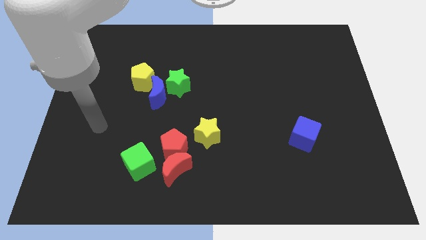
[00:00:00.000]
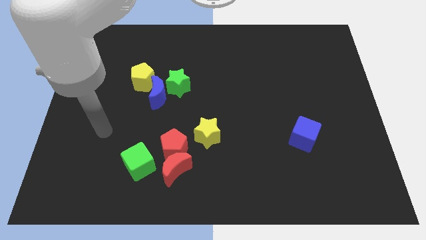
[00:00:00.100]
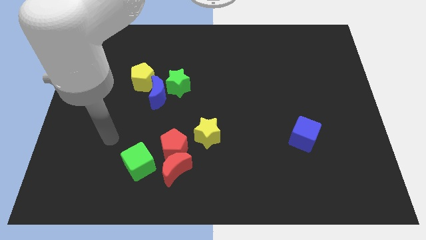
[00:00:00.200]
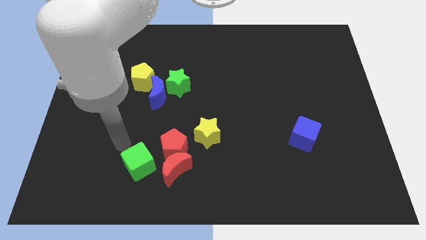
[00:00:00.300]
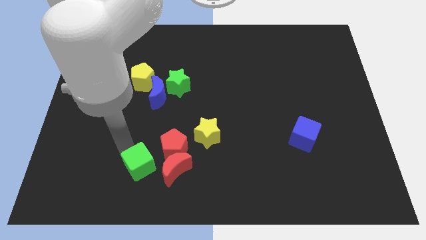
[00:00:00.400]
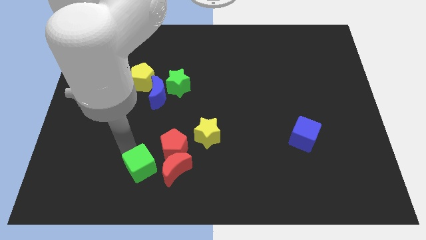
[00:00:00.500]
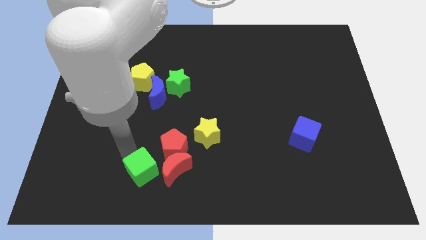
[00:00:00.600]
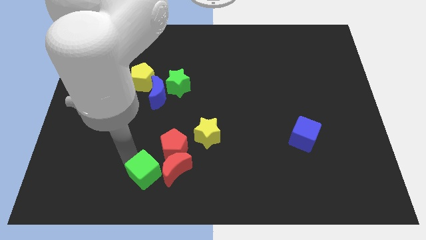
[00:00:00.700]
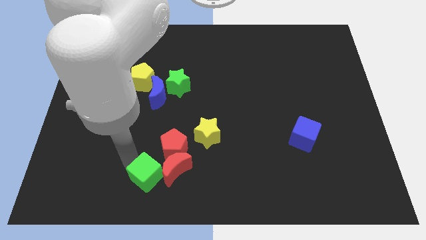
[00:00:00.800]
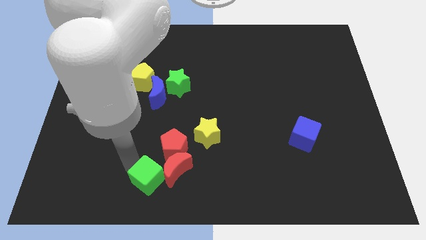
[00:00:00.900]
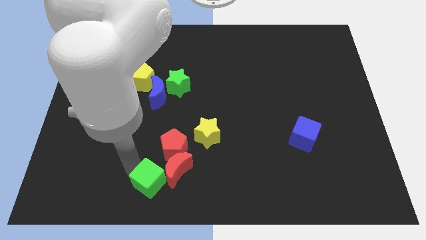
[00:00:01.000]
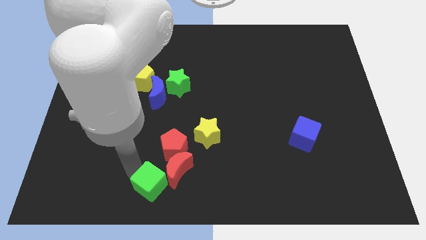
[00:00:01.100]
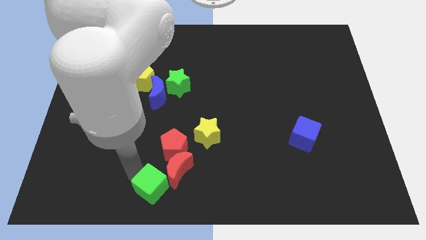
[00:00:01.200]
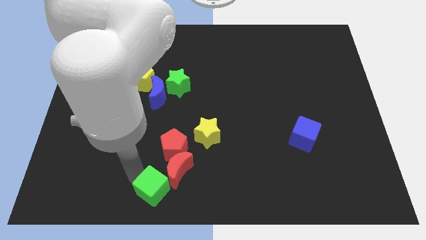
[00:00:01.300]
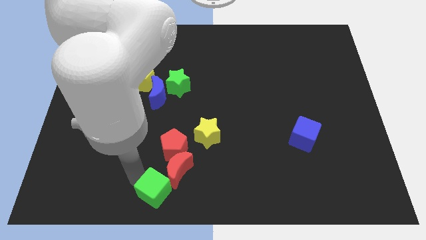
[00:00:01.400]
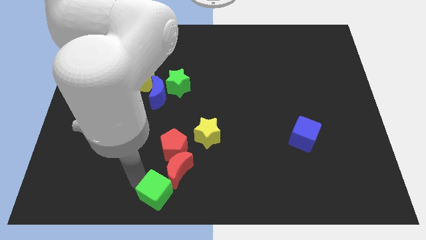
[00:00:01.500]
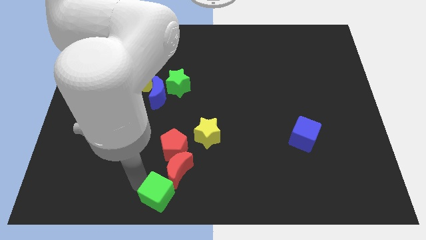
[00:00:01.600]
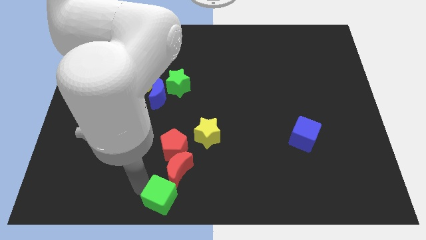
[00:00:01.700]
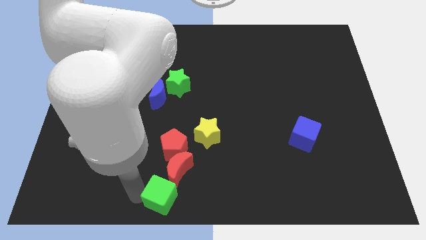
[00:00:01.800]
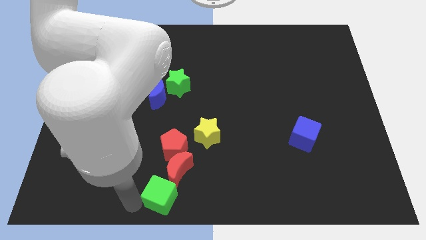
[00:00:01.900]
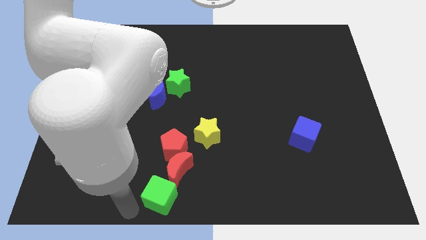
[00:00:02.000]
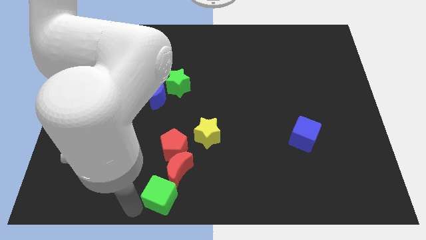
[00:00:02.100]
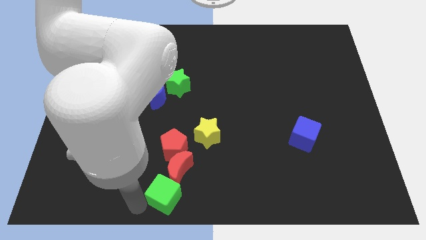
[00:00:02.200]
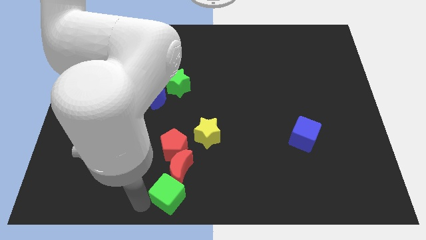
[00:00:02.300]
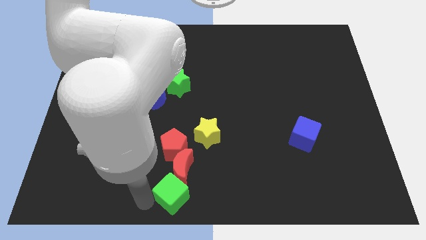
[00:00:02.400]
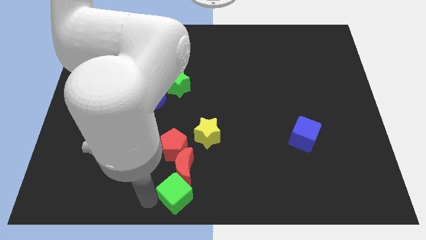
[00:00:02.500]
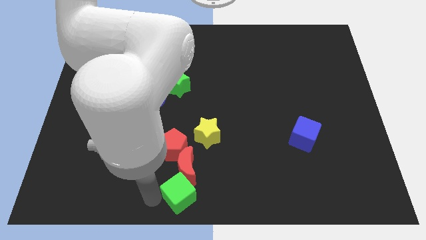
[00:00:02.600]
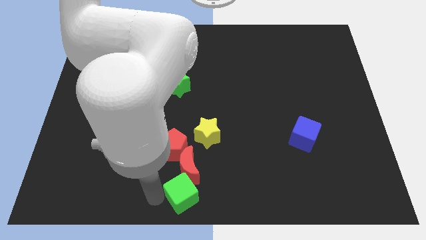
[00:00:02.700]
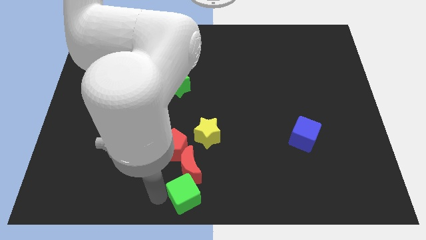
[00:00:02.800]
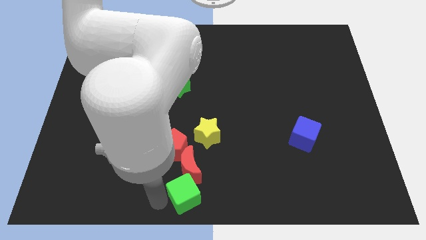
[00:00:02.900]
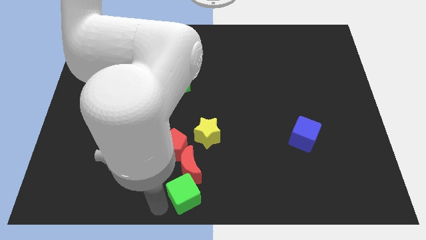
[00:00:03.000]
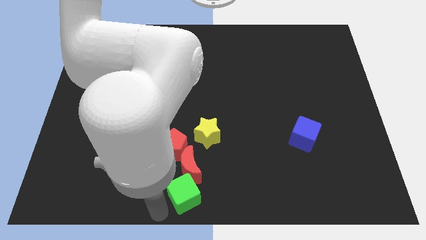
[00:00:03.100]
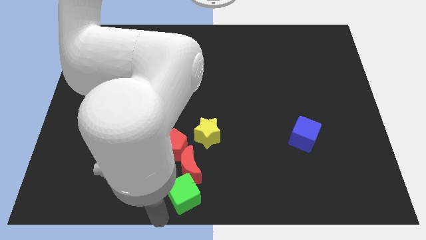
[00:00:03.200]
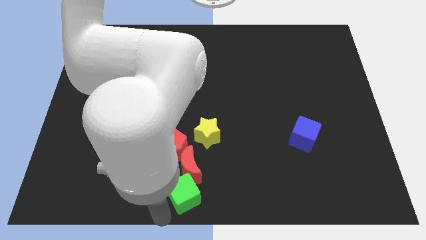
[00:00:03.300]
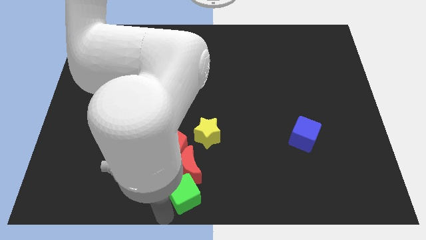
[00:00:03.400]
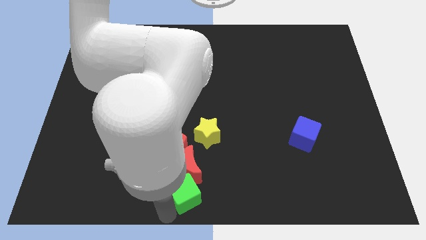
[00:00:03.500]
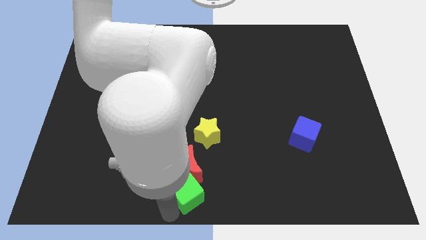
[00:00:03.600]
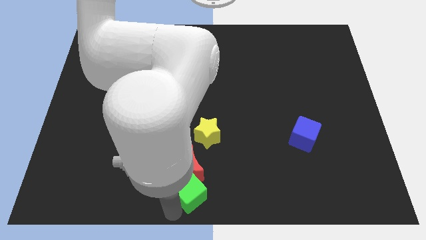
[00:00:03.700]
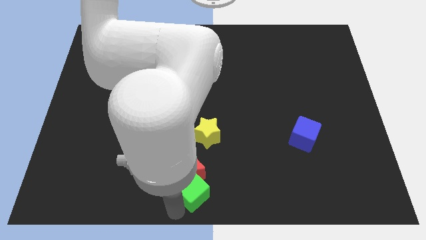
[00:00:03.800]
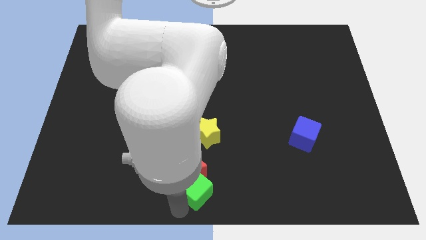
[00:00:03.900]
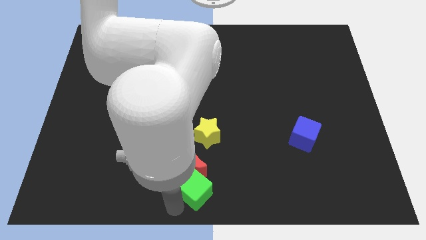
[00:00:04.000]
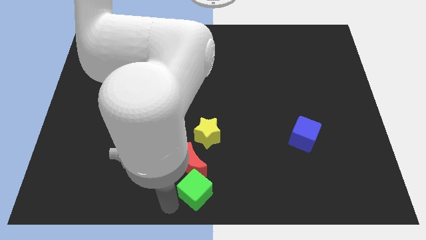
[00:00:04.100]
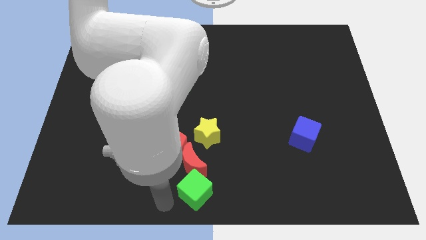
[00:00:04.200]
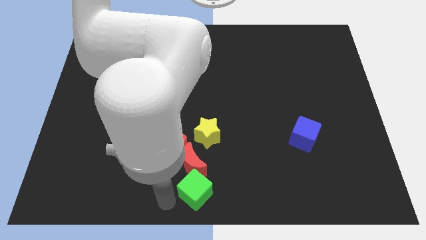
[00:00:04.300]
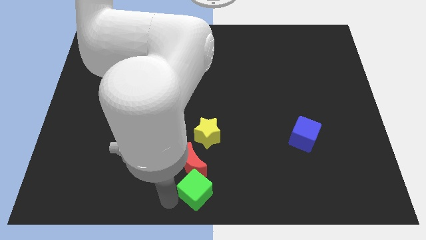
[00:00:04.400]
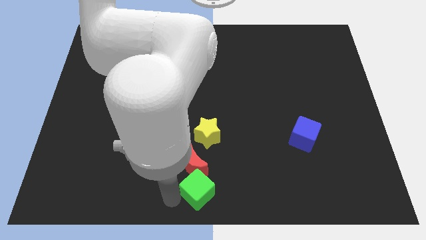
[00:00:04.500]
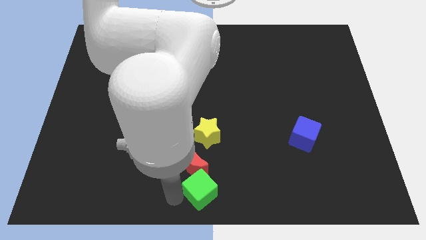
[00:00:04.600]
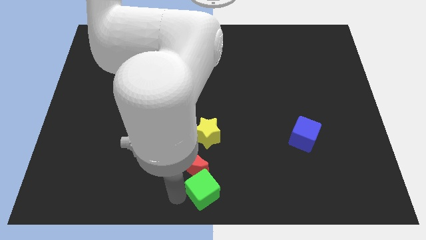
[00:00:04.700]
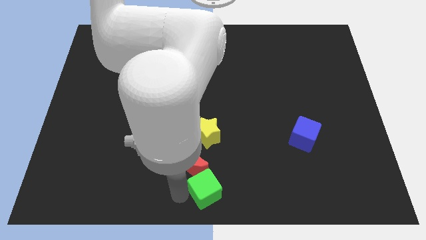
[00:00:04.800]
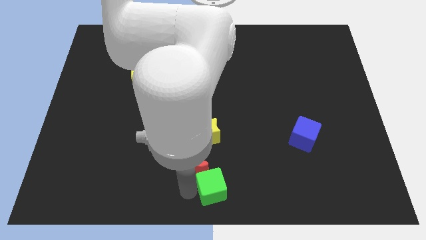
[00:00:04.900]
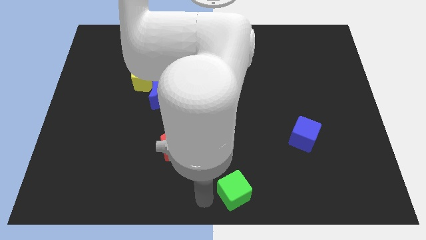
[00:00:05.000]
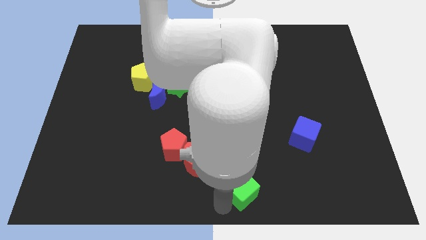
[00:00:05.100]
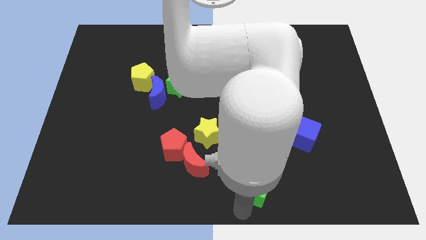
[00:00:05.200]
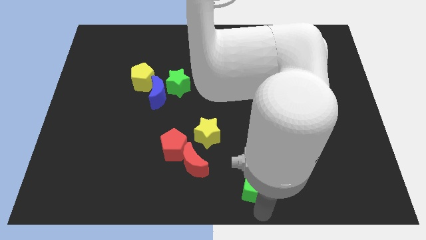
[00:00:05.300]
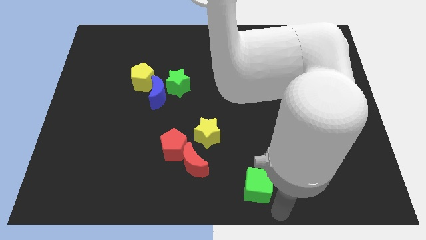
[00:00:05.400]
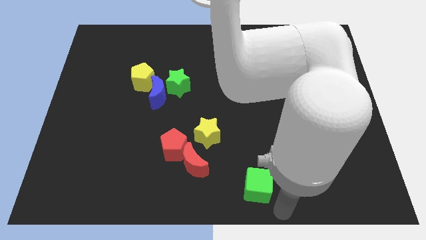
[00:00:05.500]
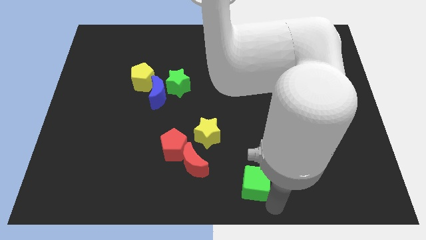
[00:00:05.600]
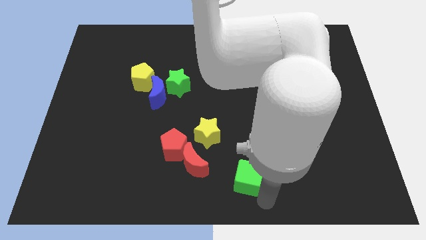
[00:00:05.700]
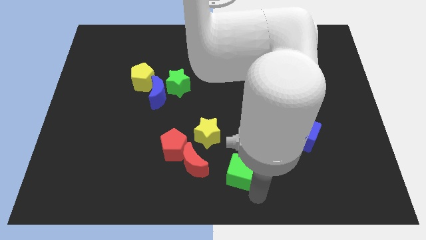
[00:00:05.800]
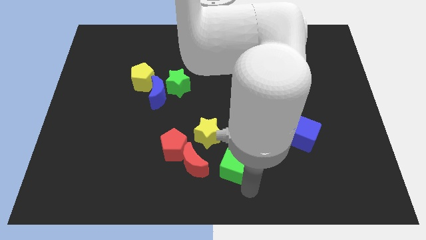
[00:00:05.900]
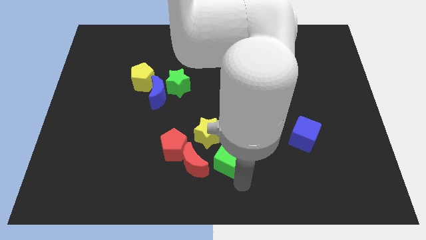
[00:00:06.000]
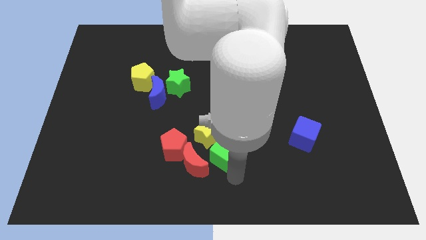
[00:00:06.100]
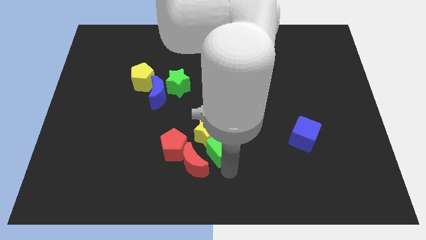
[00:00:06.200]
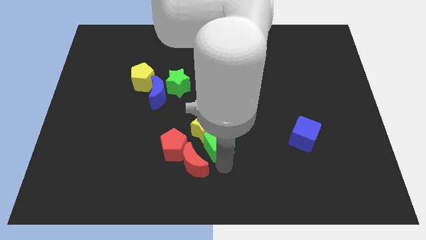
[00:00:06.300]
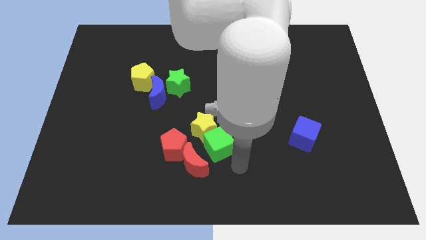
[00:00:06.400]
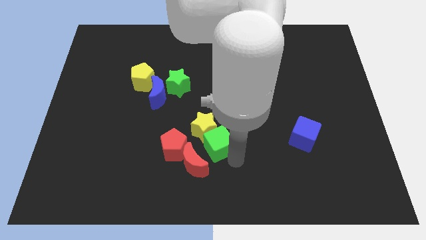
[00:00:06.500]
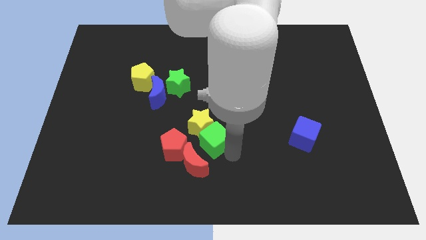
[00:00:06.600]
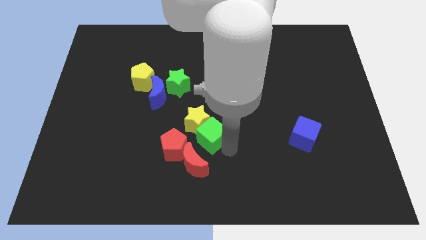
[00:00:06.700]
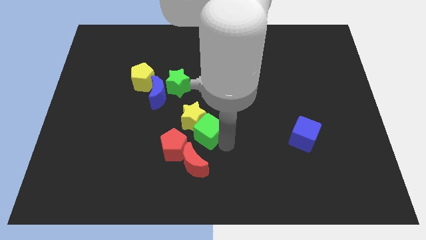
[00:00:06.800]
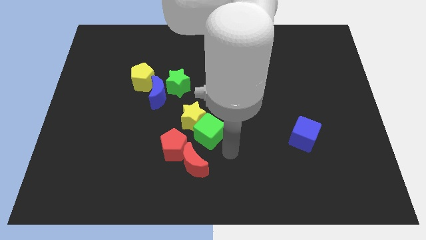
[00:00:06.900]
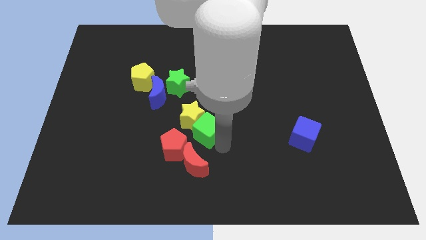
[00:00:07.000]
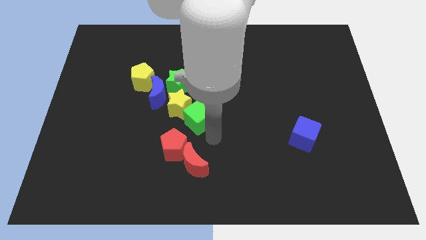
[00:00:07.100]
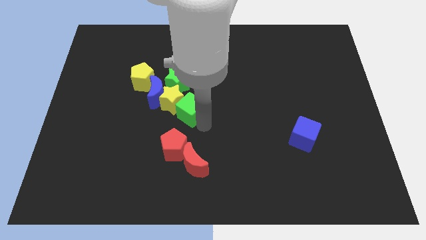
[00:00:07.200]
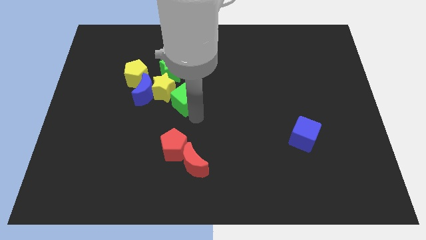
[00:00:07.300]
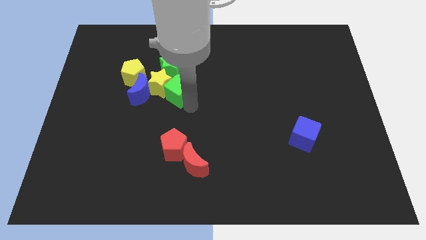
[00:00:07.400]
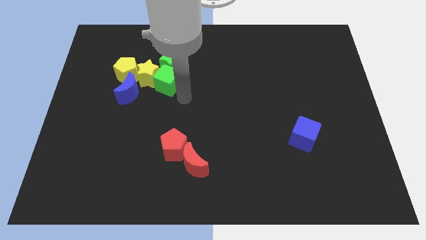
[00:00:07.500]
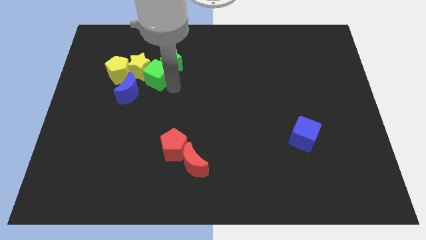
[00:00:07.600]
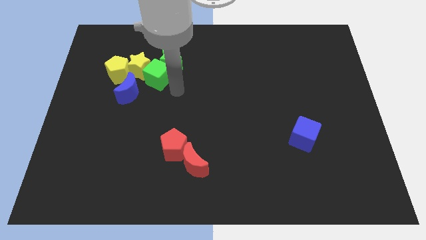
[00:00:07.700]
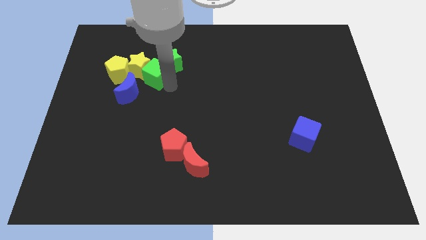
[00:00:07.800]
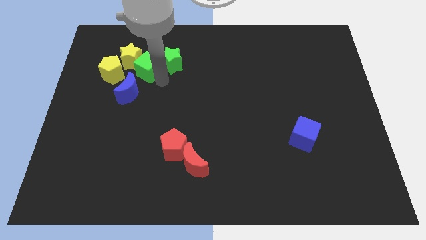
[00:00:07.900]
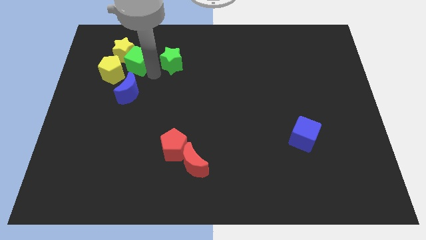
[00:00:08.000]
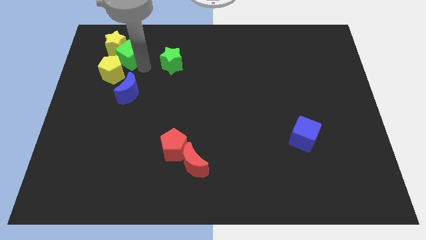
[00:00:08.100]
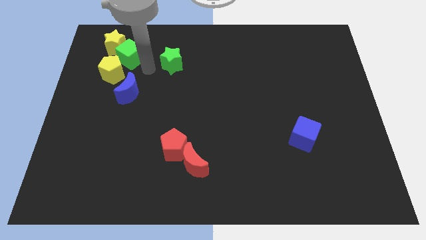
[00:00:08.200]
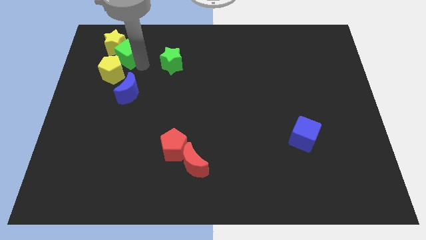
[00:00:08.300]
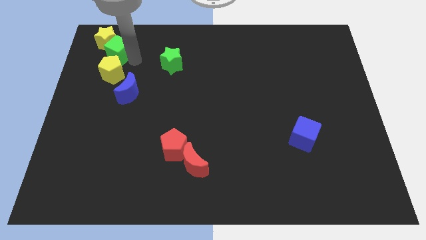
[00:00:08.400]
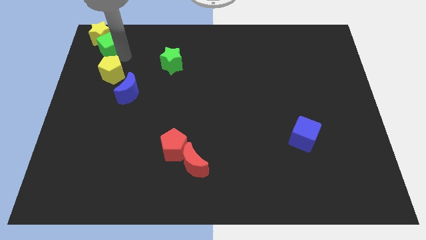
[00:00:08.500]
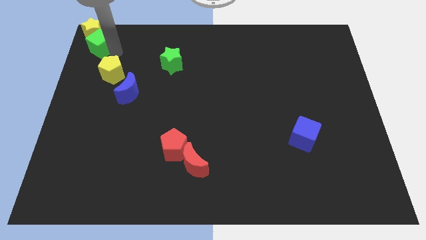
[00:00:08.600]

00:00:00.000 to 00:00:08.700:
push the green cube to the upper left corner
